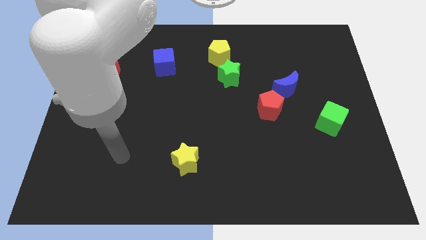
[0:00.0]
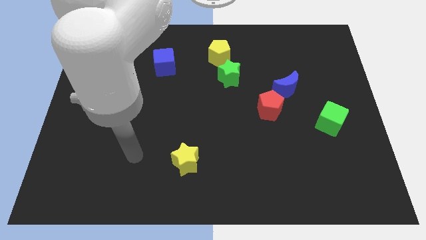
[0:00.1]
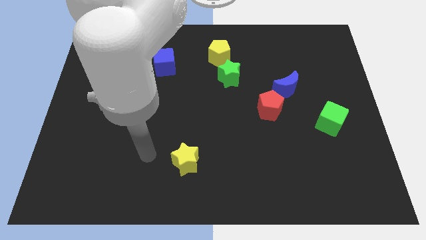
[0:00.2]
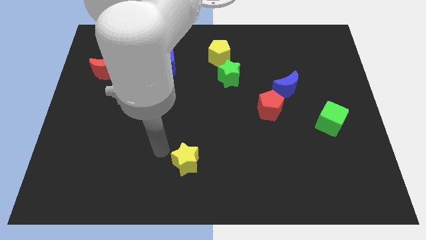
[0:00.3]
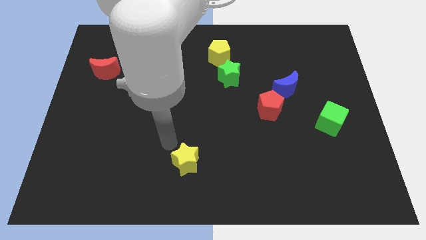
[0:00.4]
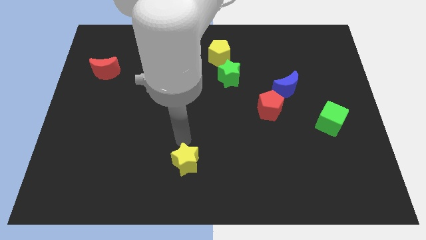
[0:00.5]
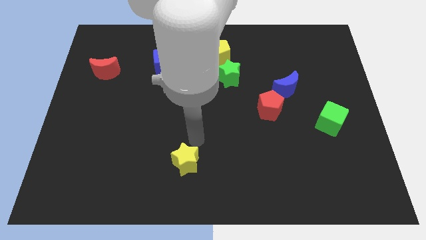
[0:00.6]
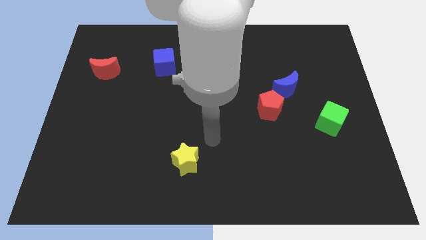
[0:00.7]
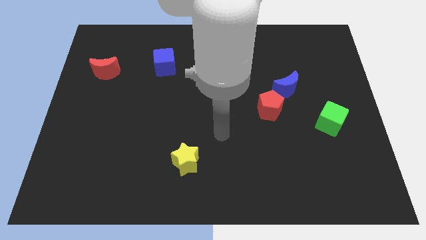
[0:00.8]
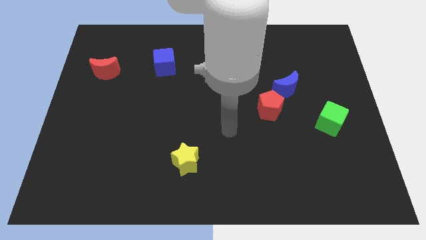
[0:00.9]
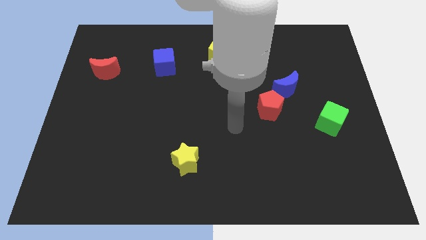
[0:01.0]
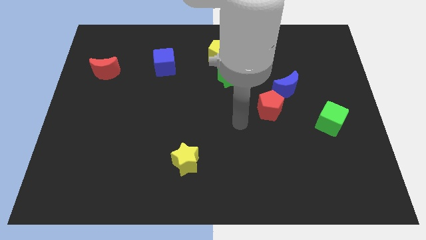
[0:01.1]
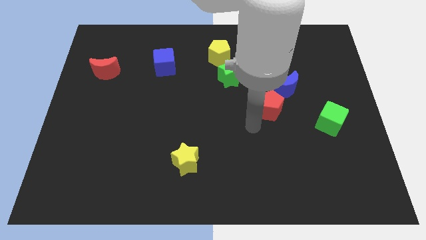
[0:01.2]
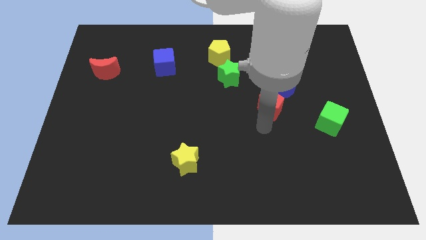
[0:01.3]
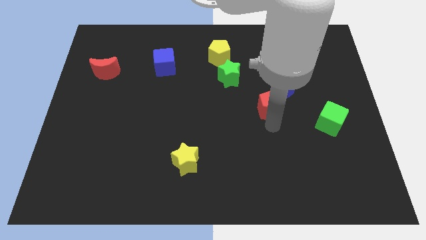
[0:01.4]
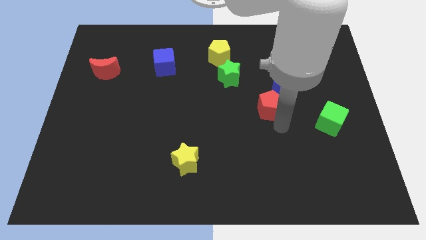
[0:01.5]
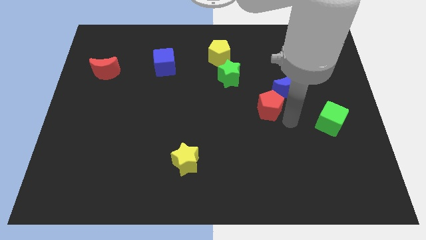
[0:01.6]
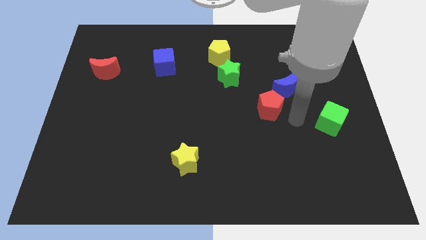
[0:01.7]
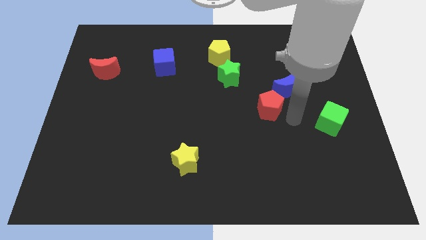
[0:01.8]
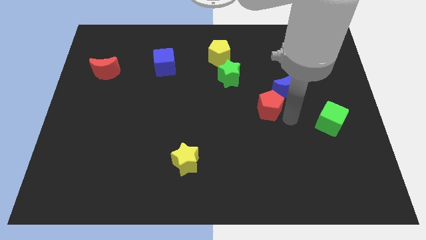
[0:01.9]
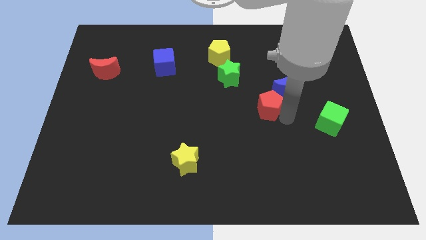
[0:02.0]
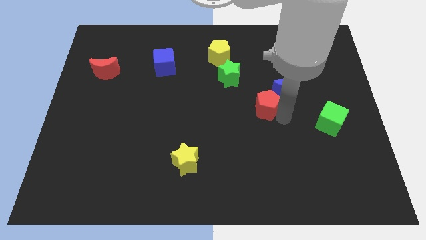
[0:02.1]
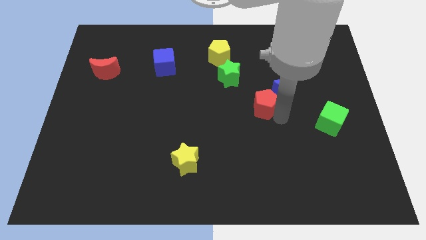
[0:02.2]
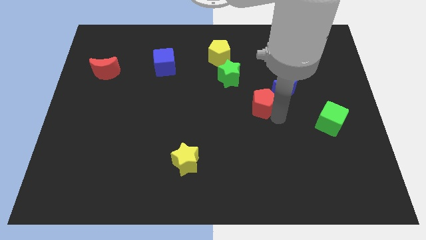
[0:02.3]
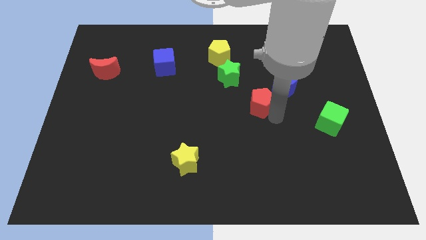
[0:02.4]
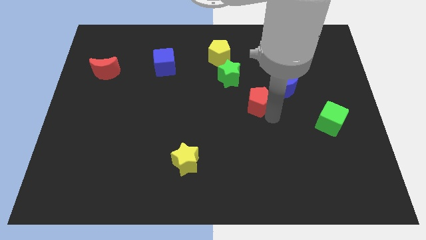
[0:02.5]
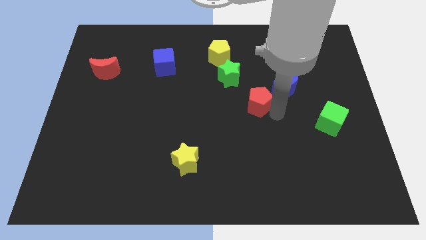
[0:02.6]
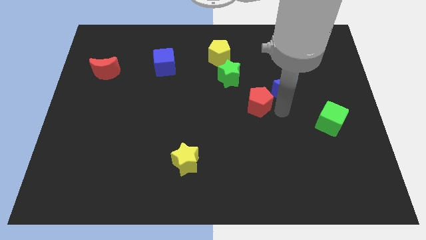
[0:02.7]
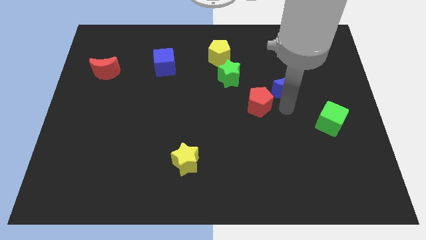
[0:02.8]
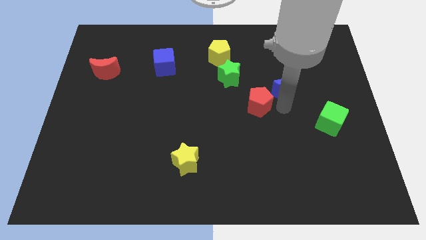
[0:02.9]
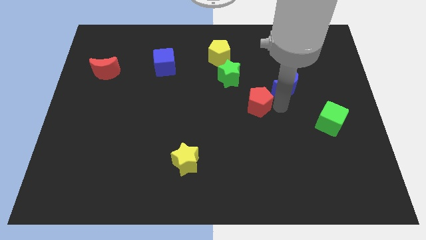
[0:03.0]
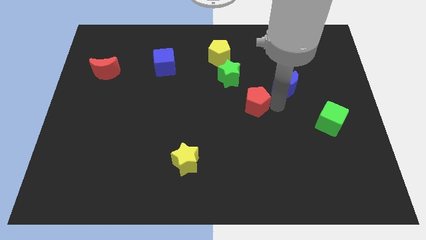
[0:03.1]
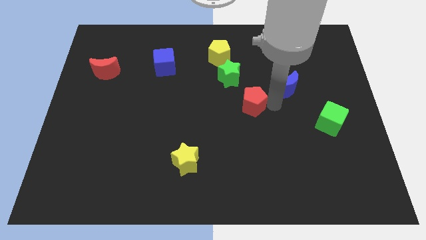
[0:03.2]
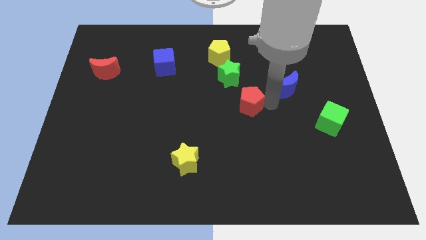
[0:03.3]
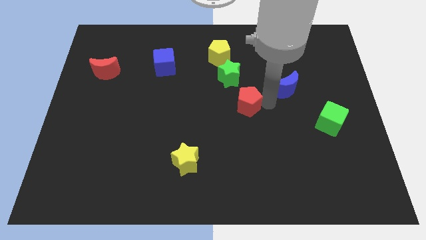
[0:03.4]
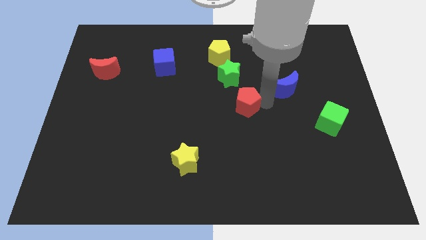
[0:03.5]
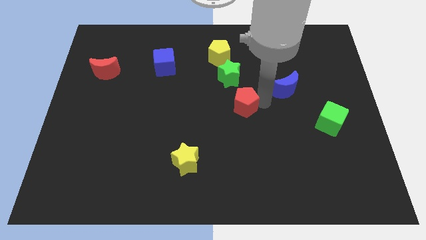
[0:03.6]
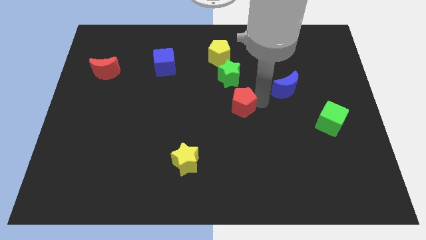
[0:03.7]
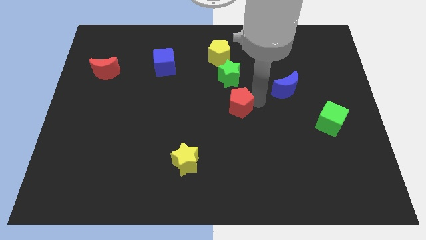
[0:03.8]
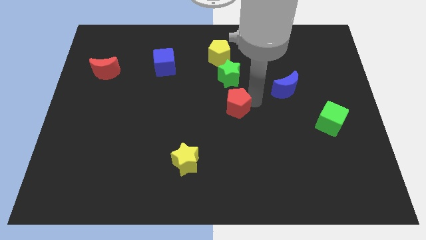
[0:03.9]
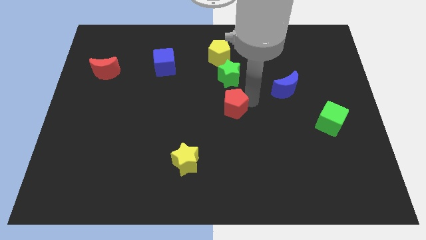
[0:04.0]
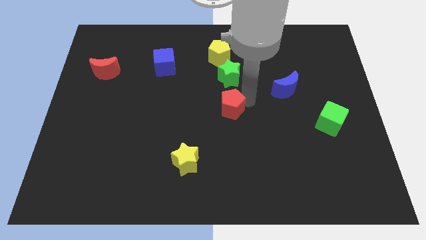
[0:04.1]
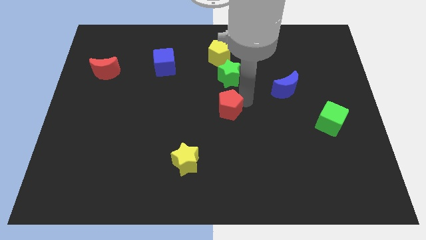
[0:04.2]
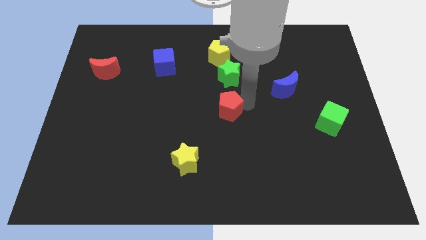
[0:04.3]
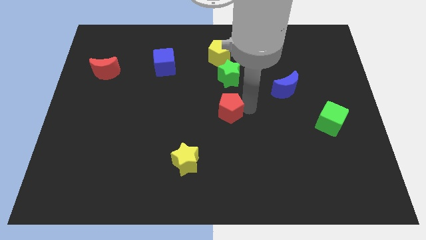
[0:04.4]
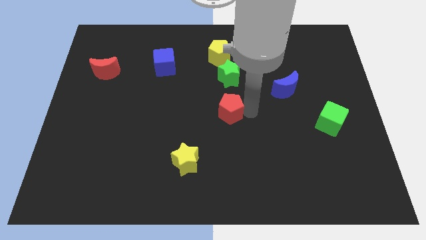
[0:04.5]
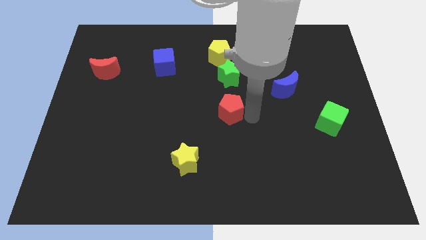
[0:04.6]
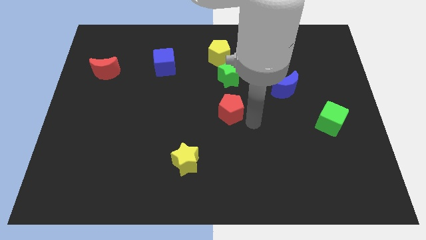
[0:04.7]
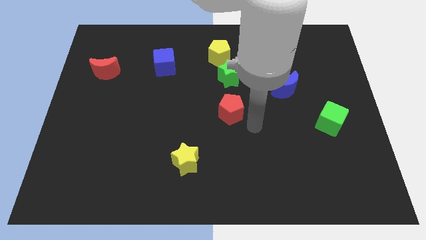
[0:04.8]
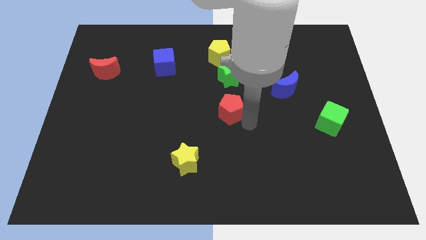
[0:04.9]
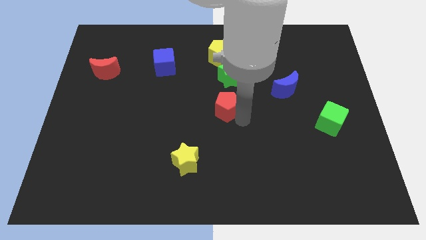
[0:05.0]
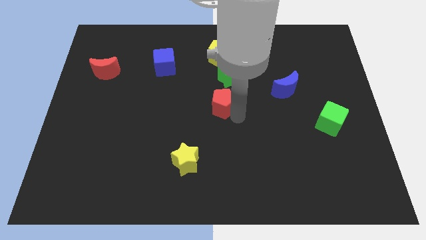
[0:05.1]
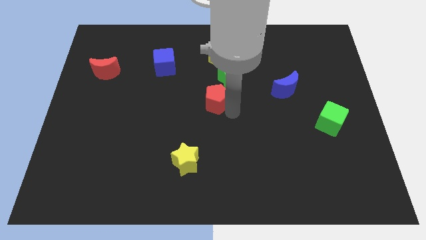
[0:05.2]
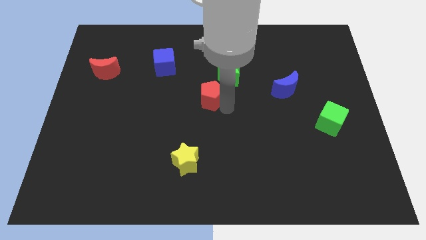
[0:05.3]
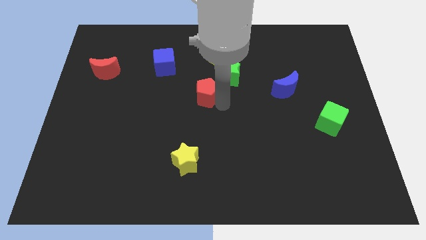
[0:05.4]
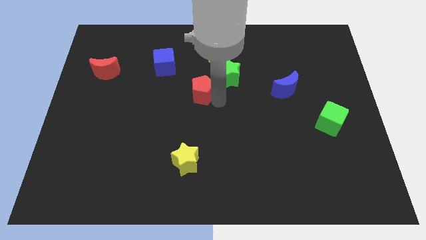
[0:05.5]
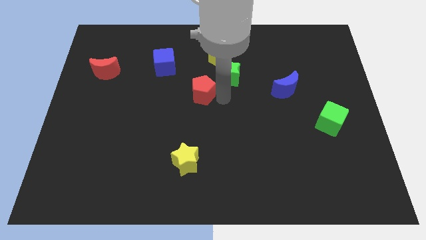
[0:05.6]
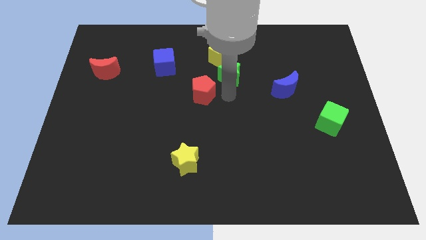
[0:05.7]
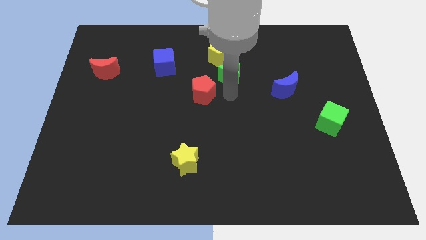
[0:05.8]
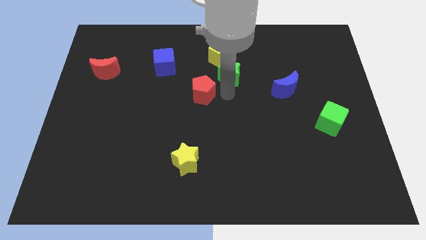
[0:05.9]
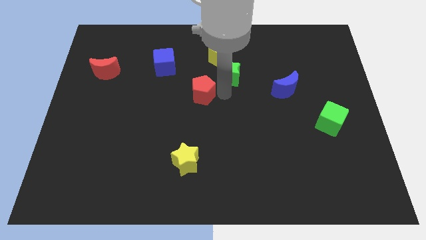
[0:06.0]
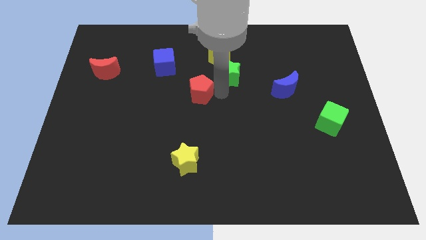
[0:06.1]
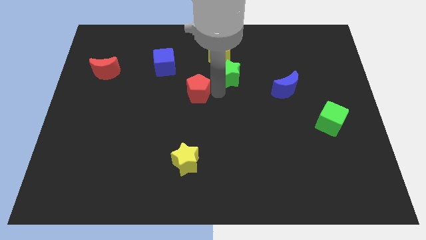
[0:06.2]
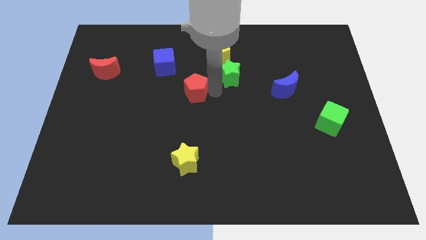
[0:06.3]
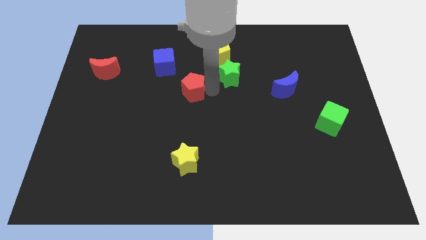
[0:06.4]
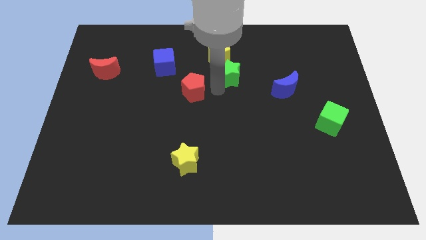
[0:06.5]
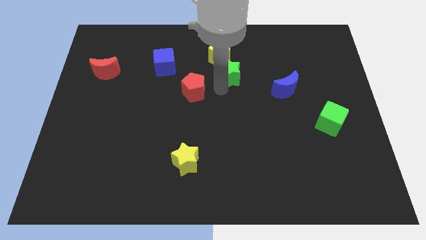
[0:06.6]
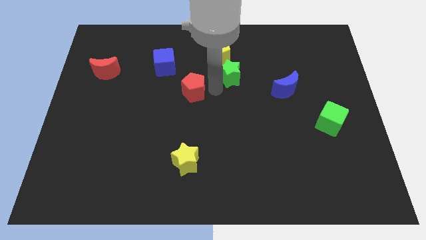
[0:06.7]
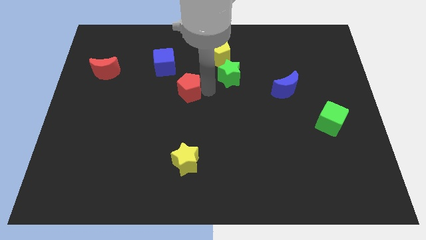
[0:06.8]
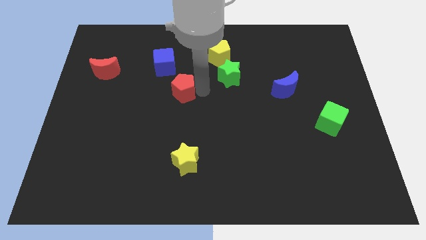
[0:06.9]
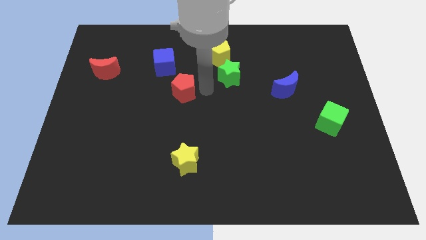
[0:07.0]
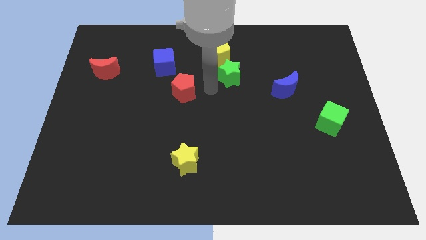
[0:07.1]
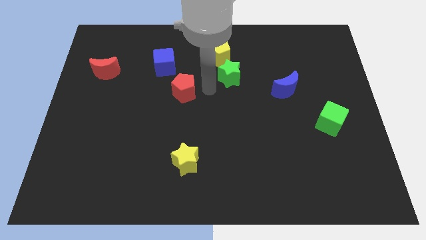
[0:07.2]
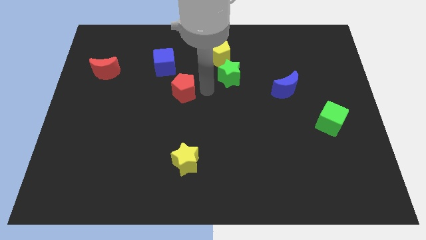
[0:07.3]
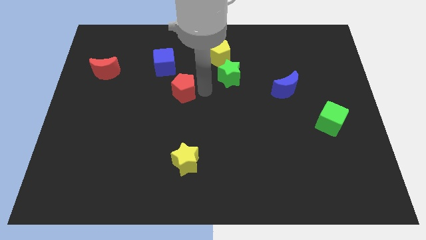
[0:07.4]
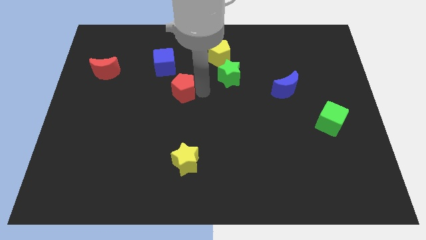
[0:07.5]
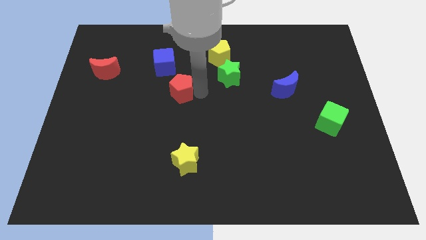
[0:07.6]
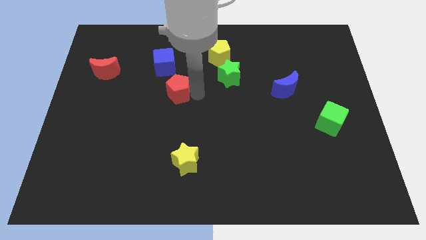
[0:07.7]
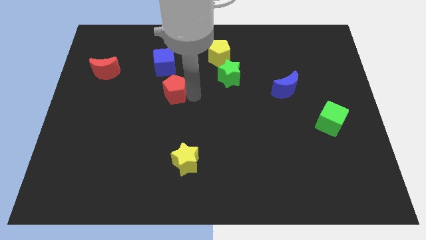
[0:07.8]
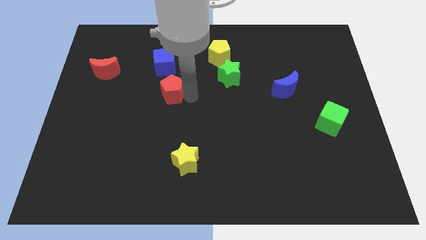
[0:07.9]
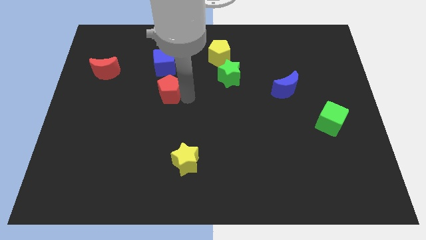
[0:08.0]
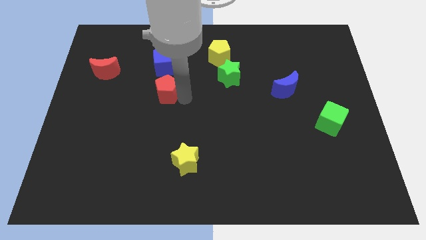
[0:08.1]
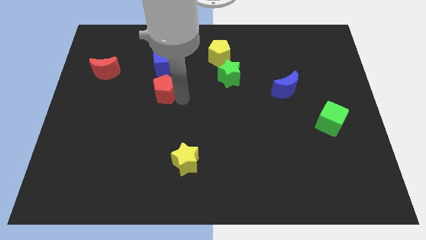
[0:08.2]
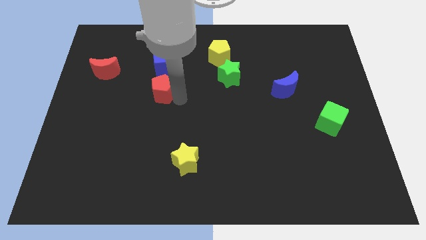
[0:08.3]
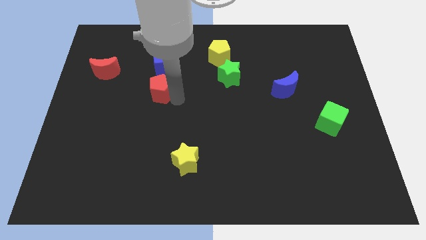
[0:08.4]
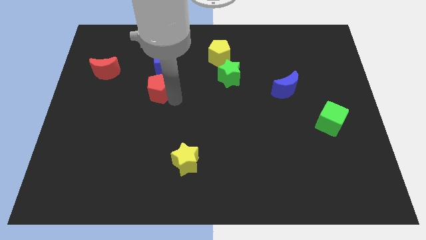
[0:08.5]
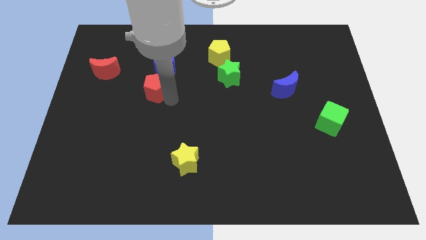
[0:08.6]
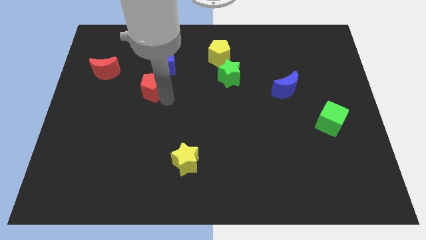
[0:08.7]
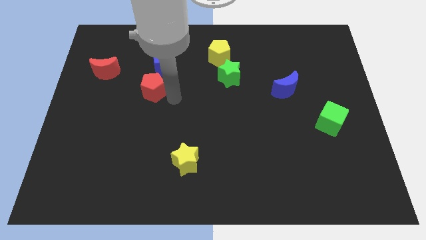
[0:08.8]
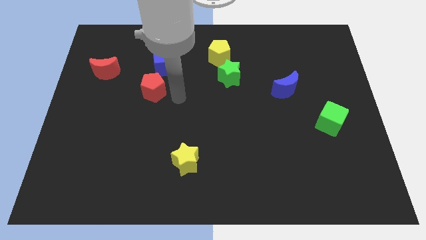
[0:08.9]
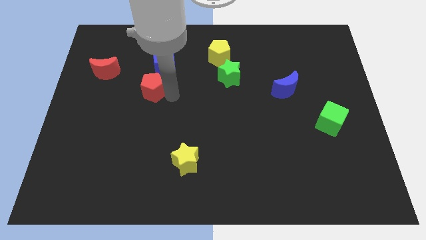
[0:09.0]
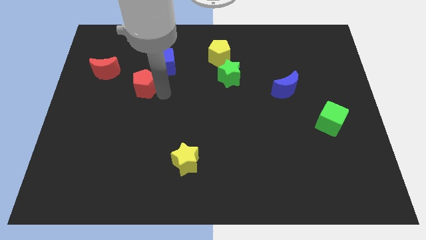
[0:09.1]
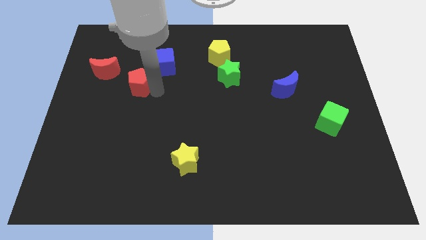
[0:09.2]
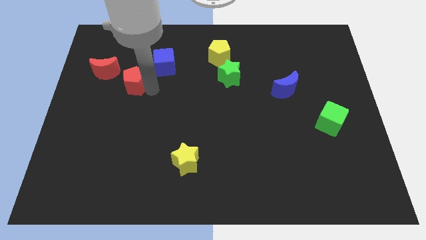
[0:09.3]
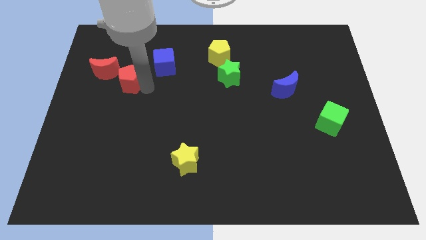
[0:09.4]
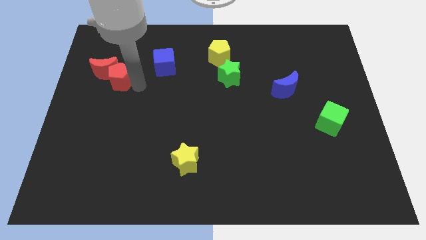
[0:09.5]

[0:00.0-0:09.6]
slide the red pentagon to the red moon
